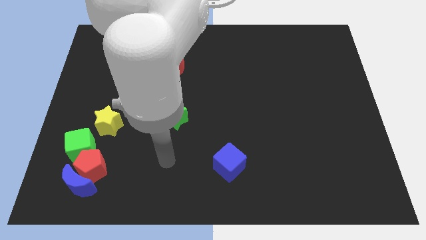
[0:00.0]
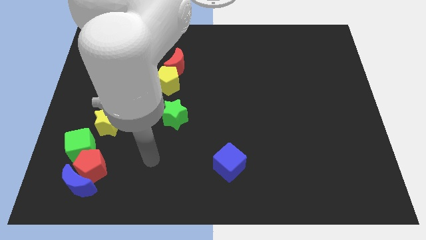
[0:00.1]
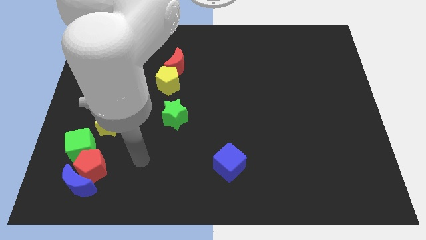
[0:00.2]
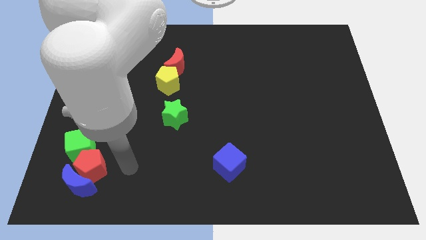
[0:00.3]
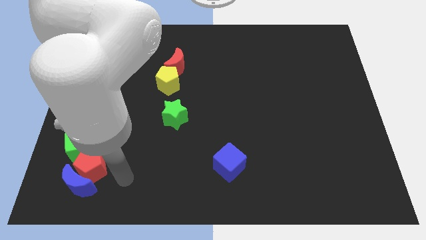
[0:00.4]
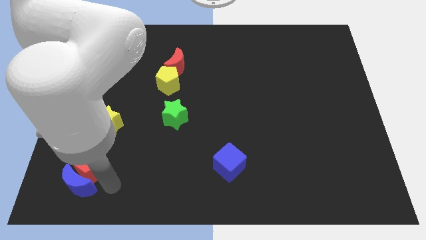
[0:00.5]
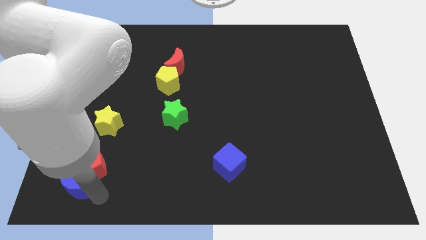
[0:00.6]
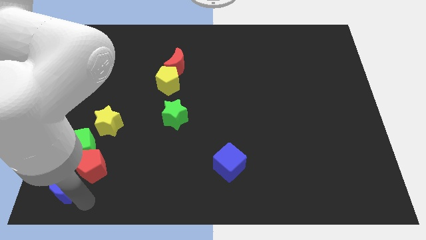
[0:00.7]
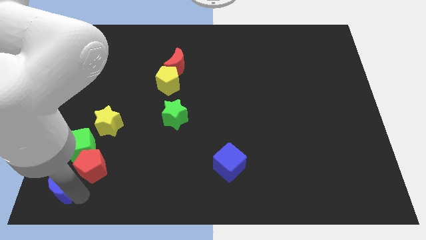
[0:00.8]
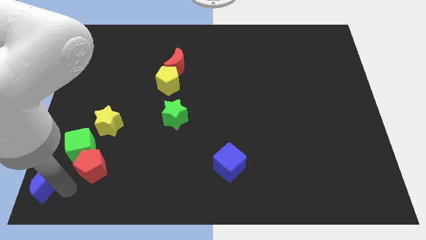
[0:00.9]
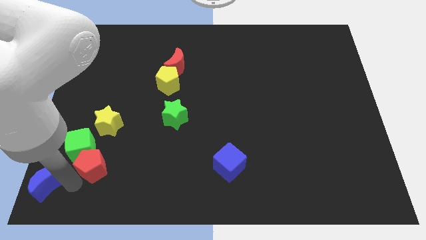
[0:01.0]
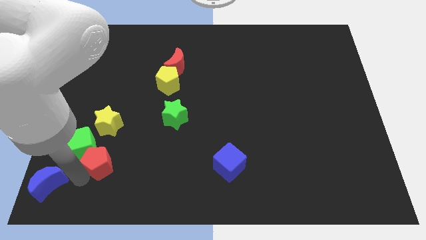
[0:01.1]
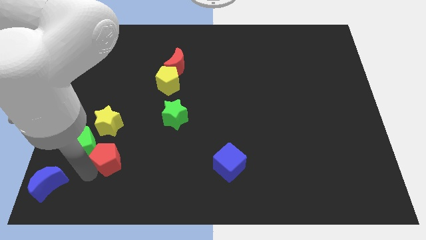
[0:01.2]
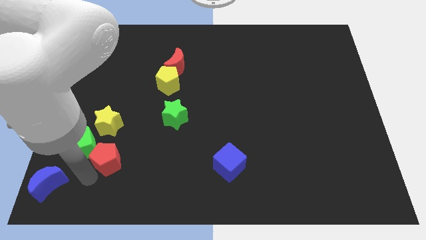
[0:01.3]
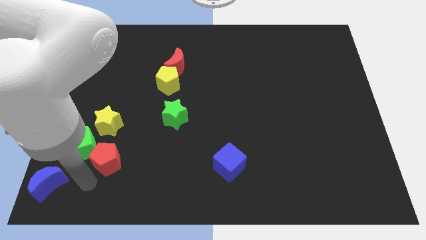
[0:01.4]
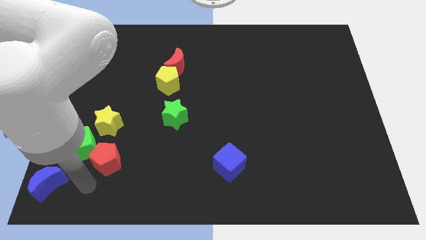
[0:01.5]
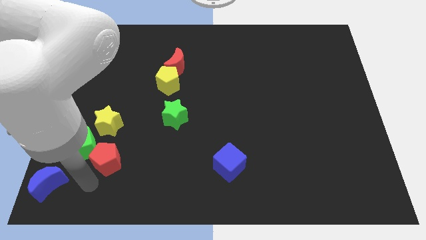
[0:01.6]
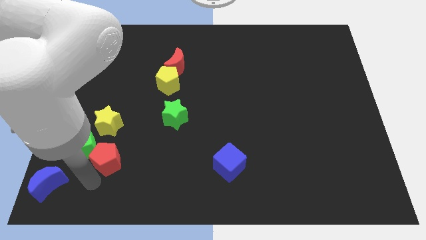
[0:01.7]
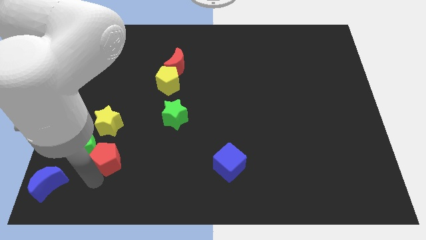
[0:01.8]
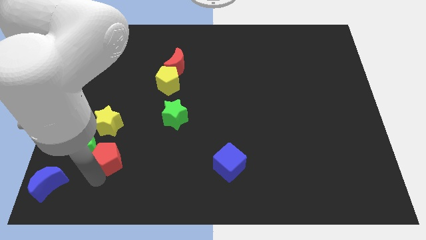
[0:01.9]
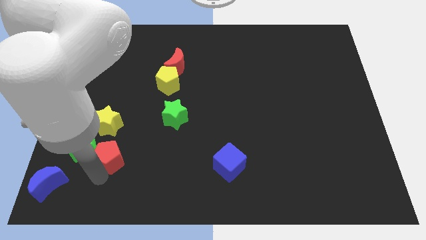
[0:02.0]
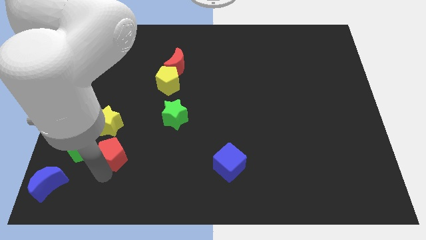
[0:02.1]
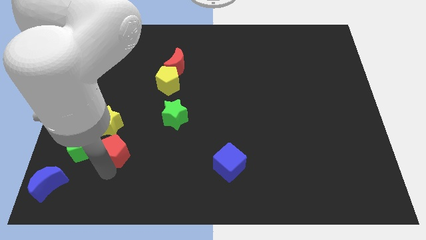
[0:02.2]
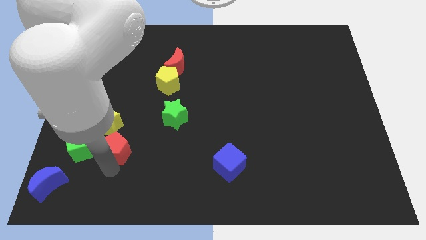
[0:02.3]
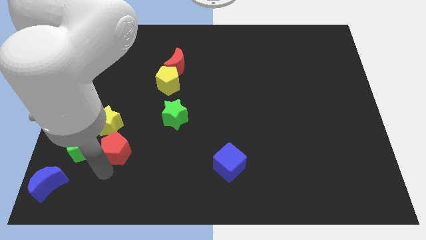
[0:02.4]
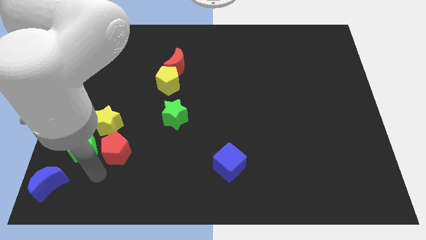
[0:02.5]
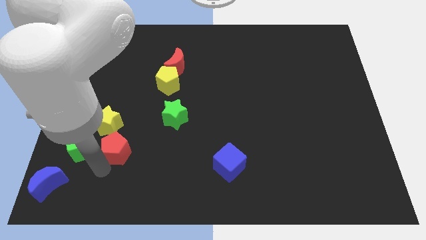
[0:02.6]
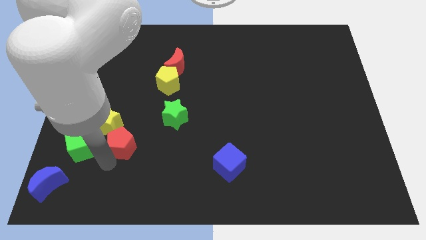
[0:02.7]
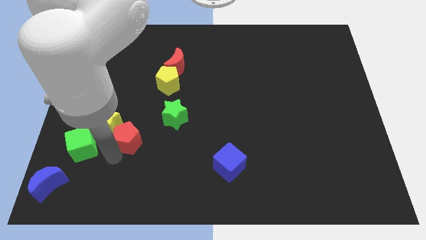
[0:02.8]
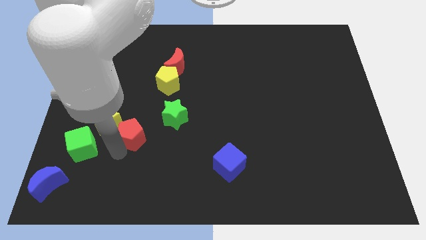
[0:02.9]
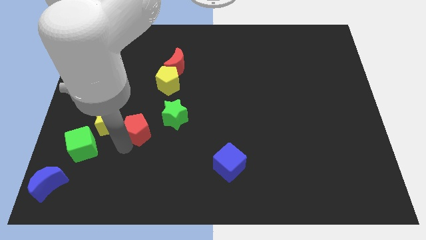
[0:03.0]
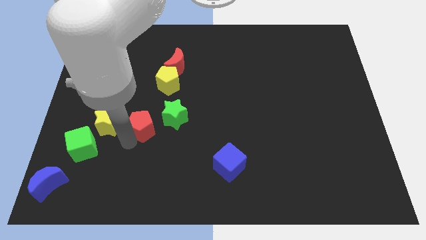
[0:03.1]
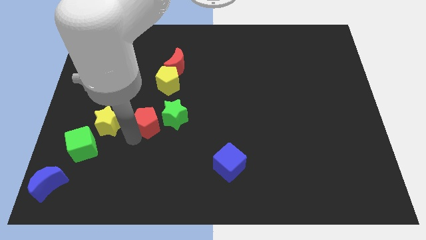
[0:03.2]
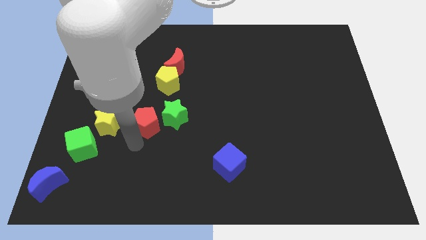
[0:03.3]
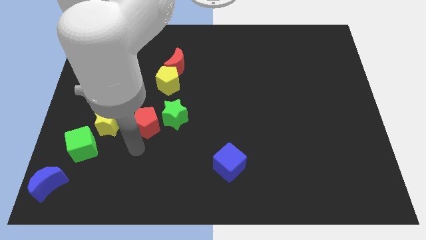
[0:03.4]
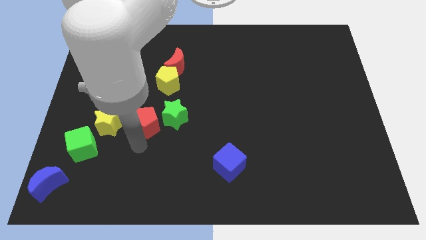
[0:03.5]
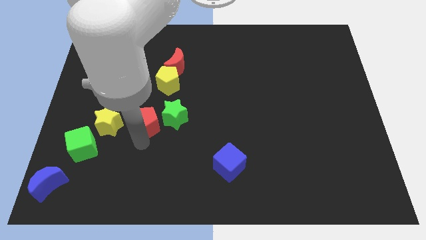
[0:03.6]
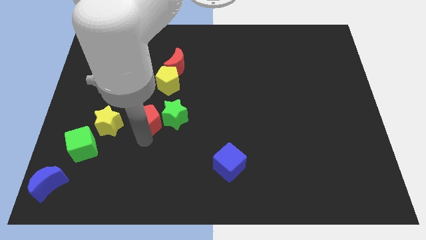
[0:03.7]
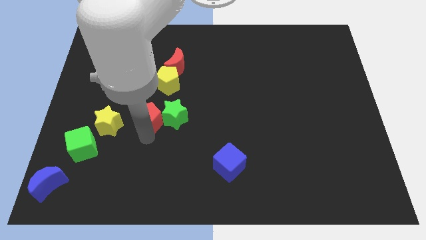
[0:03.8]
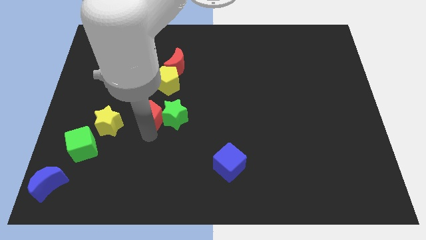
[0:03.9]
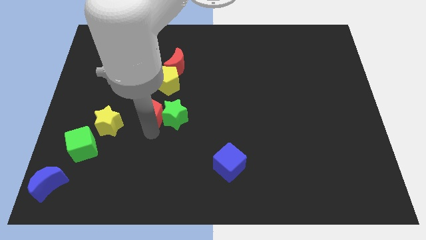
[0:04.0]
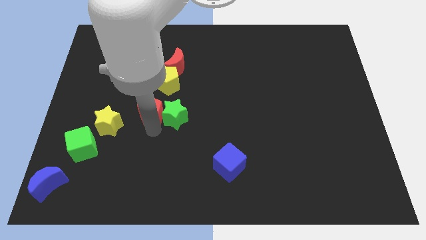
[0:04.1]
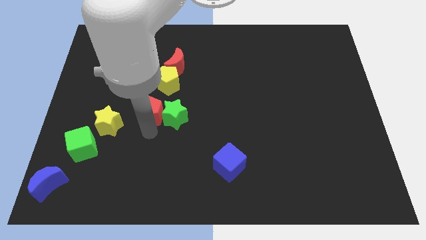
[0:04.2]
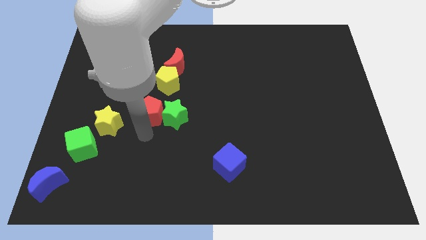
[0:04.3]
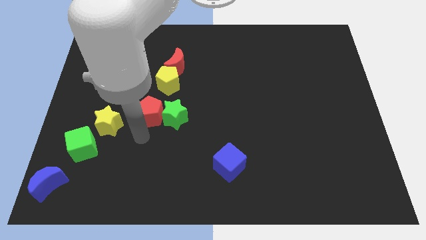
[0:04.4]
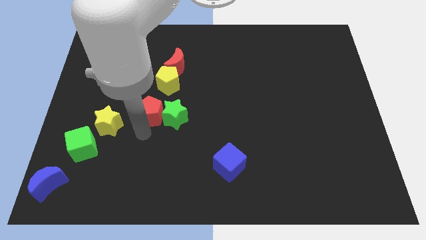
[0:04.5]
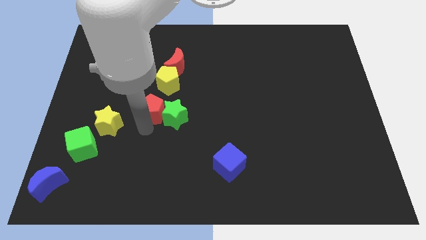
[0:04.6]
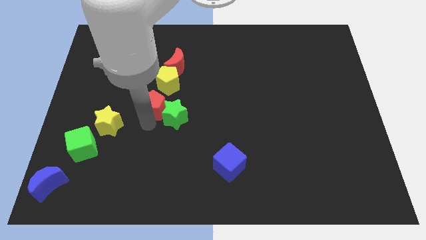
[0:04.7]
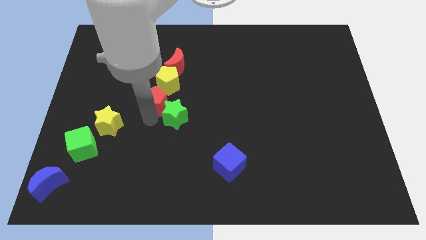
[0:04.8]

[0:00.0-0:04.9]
push the red pentagon up and to the right

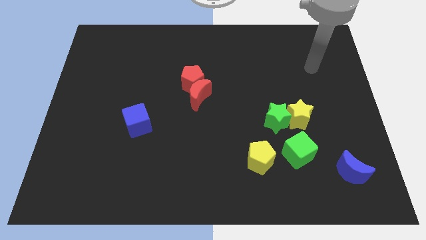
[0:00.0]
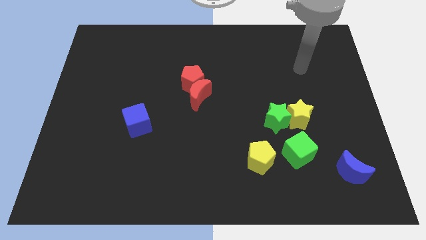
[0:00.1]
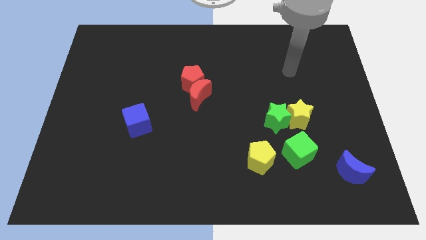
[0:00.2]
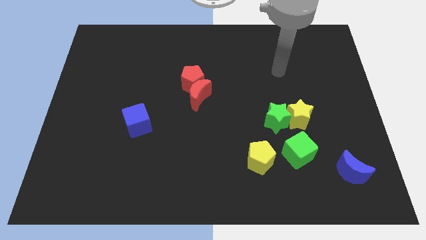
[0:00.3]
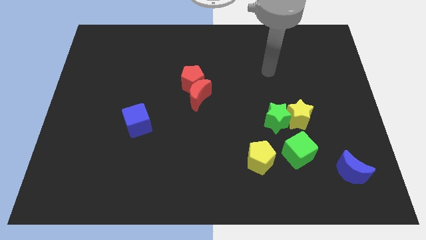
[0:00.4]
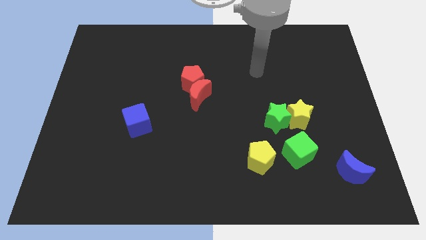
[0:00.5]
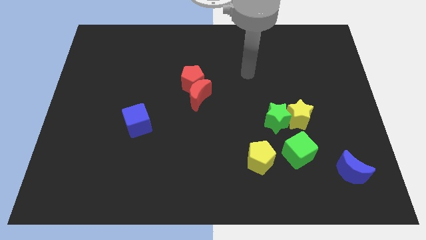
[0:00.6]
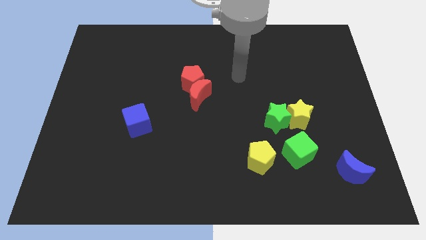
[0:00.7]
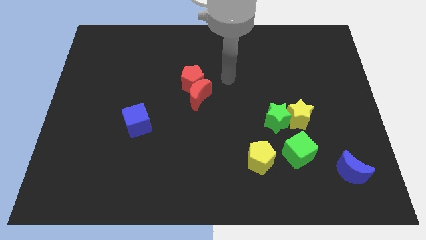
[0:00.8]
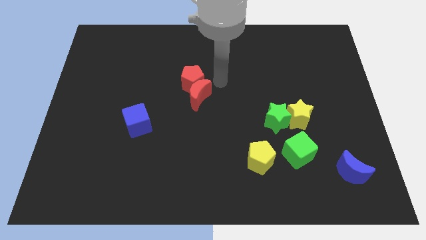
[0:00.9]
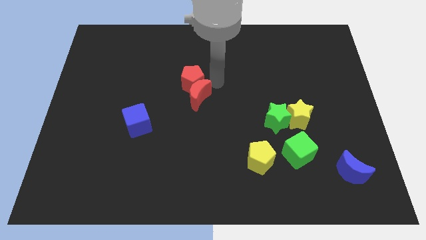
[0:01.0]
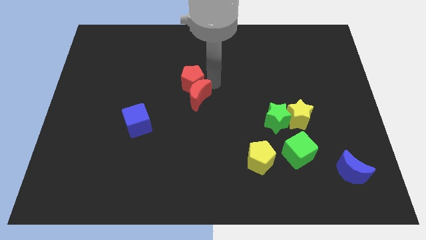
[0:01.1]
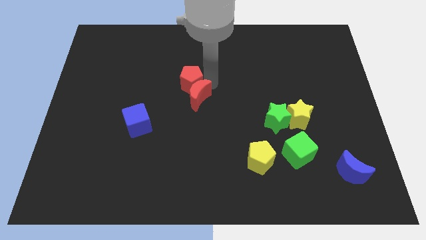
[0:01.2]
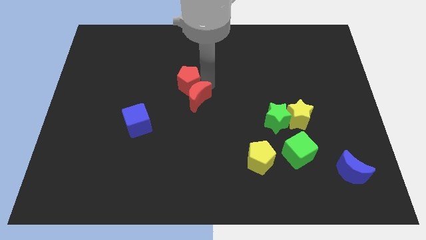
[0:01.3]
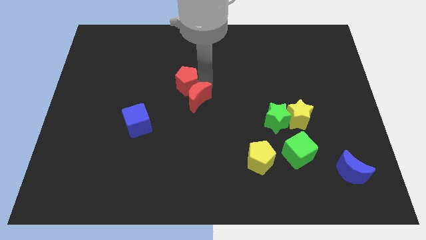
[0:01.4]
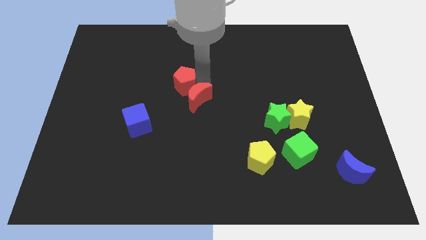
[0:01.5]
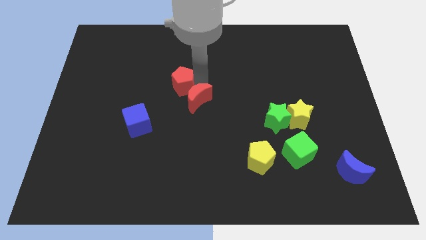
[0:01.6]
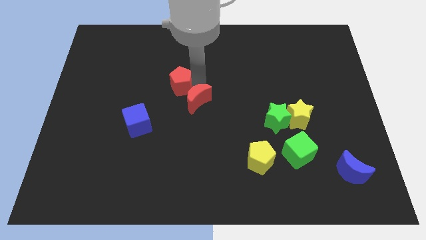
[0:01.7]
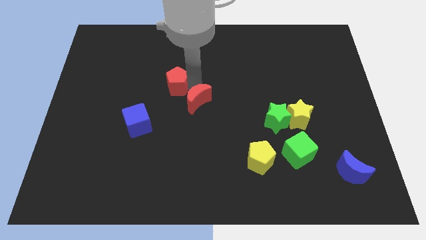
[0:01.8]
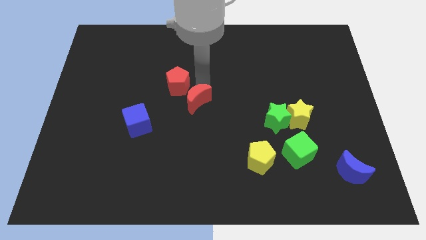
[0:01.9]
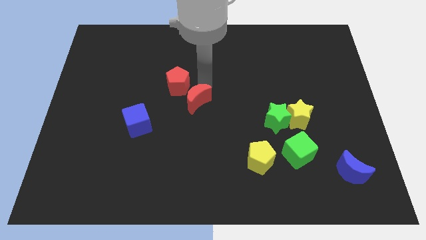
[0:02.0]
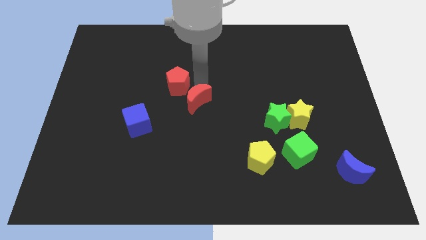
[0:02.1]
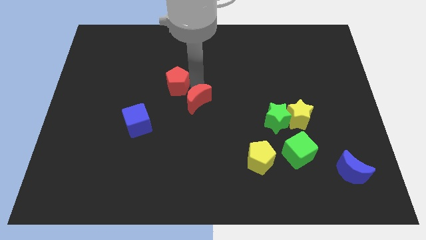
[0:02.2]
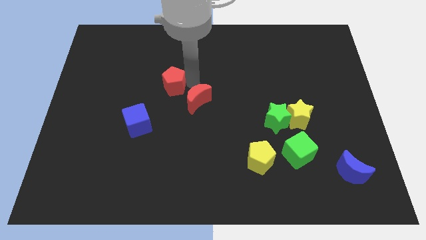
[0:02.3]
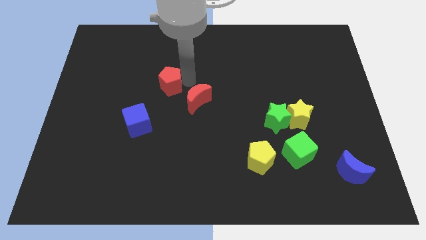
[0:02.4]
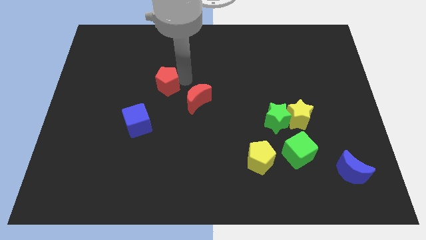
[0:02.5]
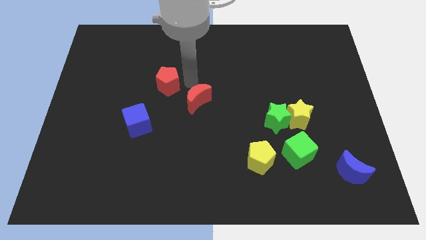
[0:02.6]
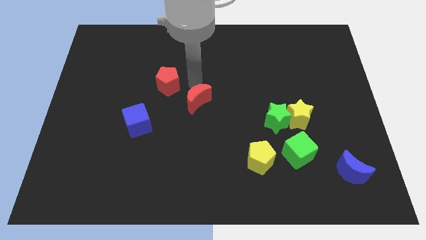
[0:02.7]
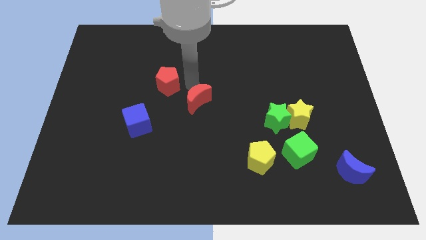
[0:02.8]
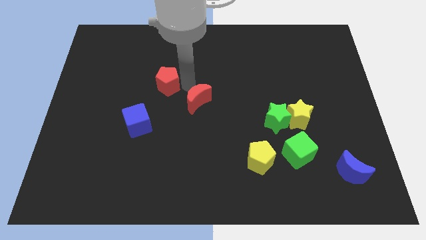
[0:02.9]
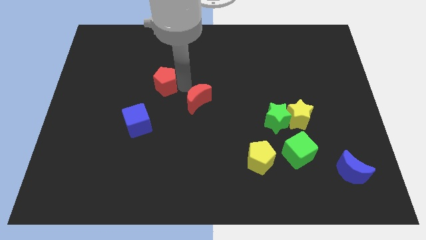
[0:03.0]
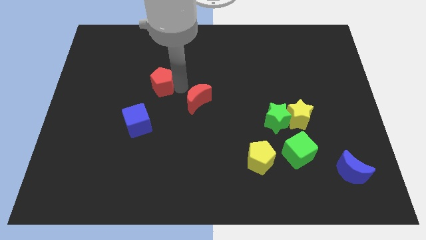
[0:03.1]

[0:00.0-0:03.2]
push the red pentagon somewhat left

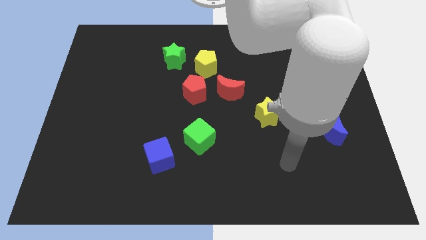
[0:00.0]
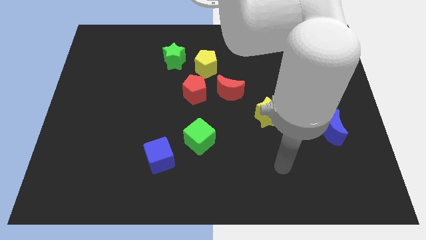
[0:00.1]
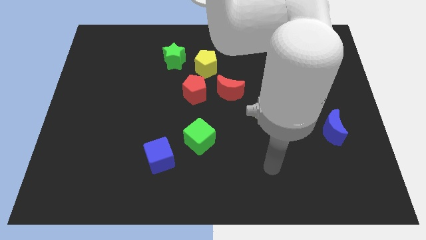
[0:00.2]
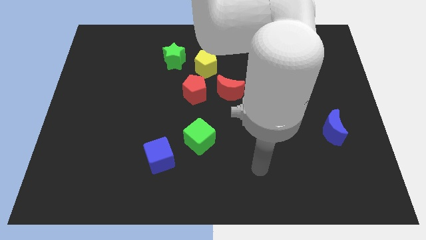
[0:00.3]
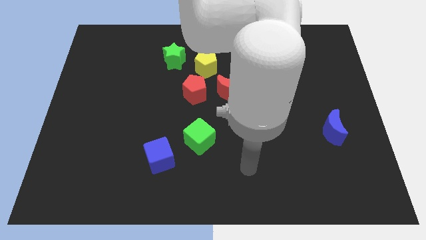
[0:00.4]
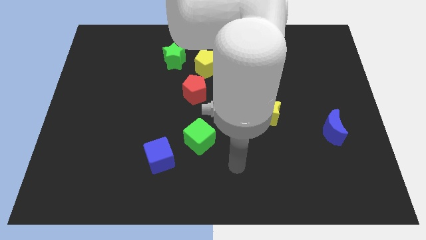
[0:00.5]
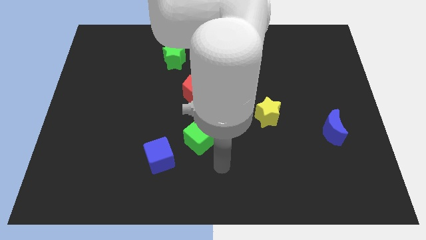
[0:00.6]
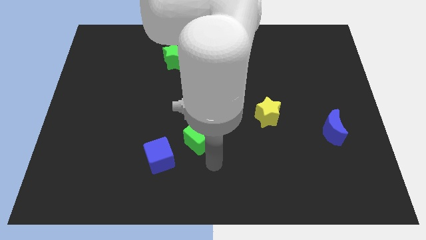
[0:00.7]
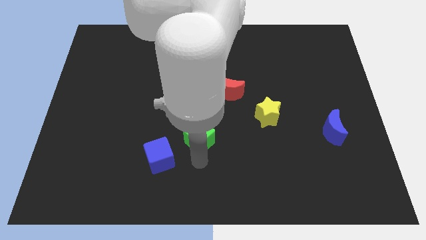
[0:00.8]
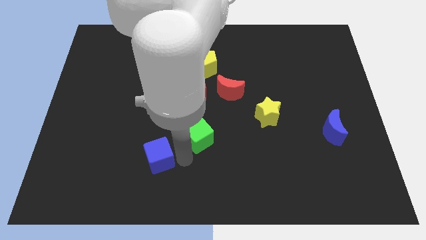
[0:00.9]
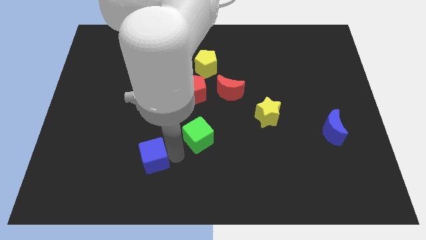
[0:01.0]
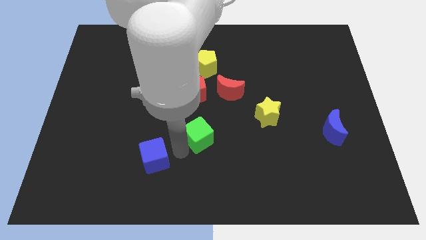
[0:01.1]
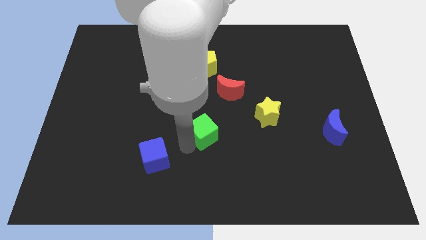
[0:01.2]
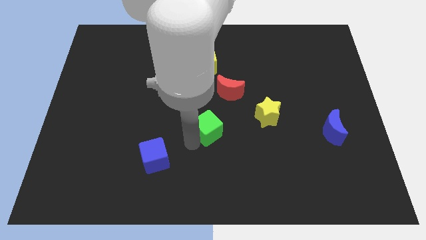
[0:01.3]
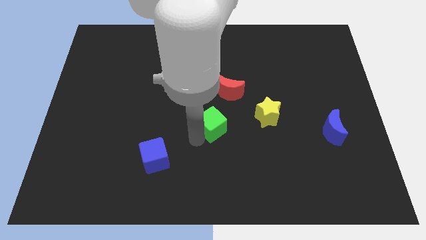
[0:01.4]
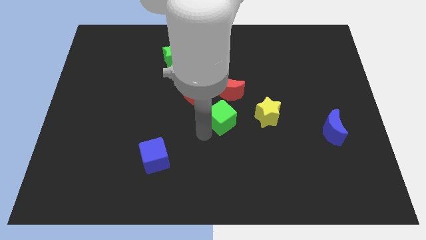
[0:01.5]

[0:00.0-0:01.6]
move the green cube a little bit up and to the right diagonally
